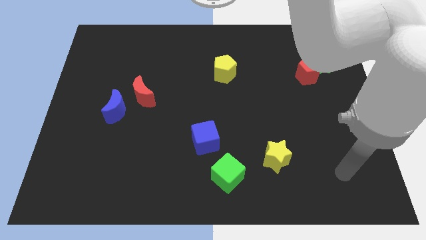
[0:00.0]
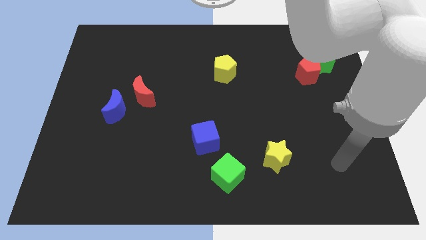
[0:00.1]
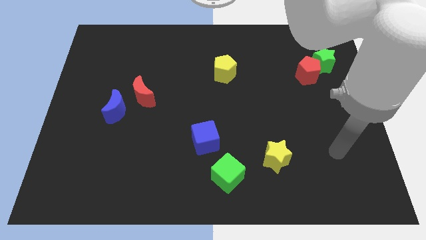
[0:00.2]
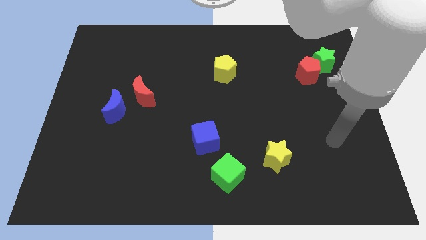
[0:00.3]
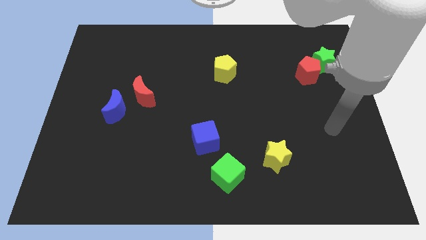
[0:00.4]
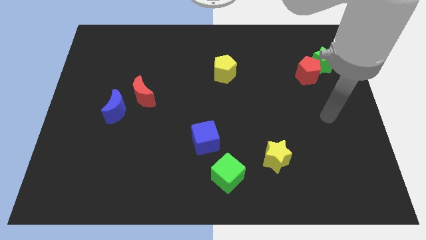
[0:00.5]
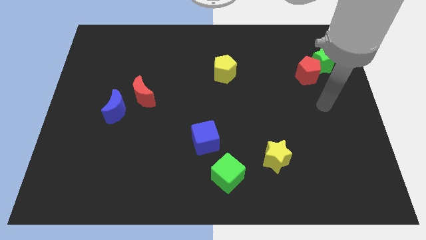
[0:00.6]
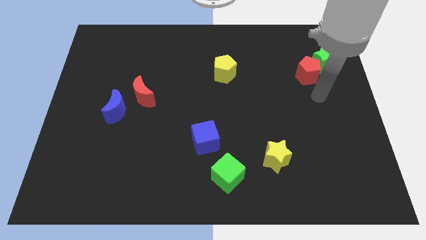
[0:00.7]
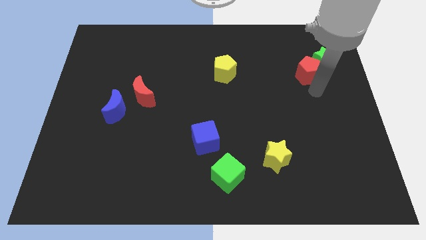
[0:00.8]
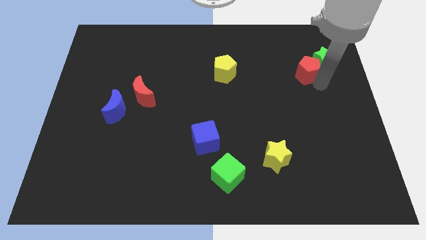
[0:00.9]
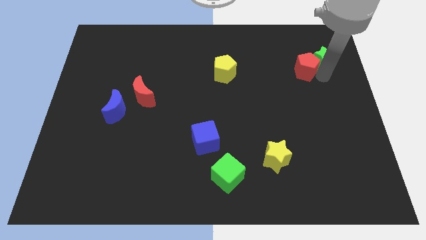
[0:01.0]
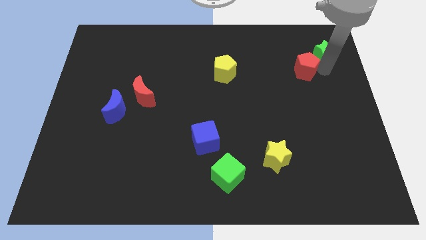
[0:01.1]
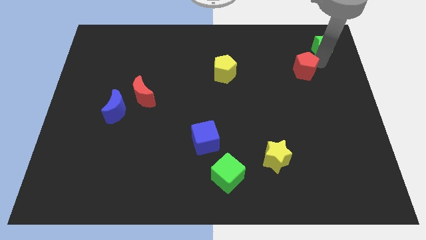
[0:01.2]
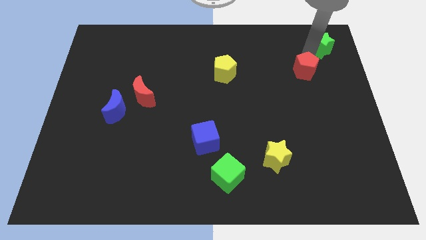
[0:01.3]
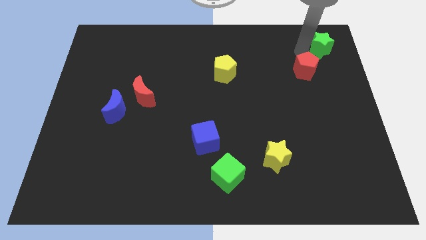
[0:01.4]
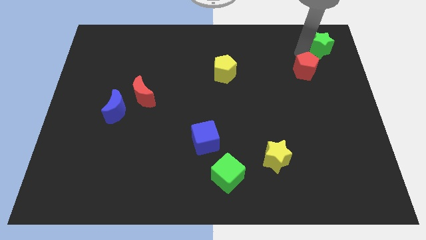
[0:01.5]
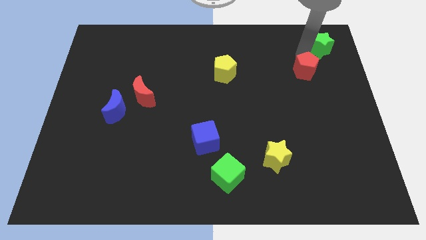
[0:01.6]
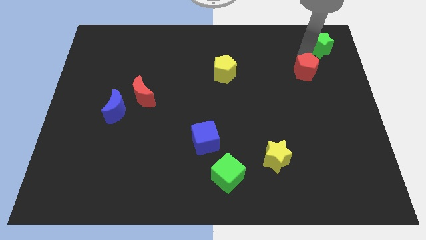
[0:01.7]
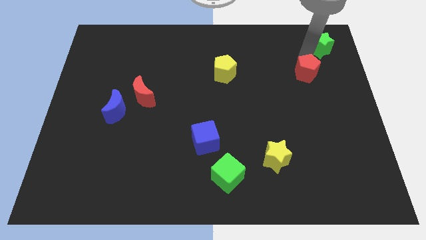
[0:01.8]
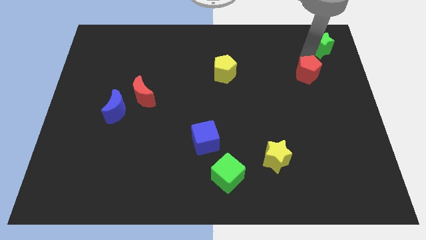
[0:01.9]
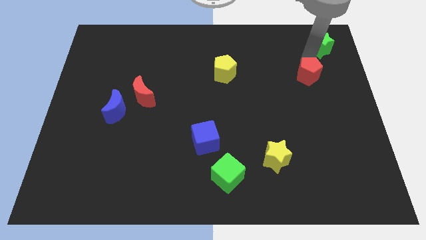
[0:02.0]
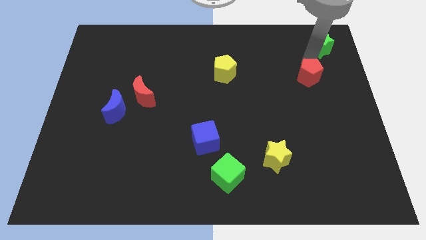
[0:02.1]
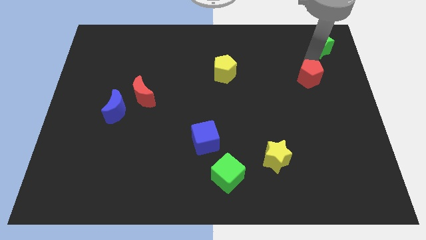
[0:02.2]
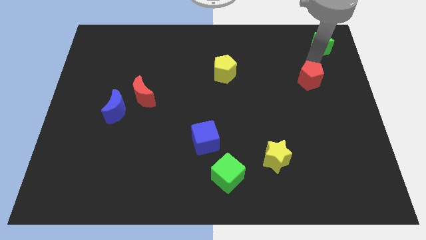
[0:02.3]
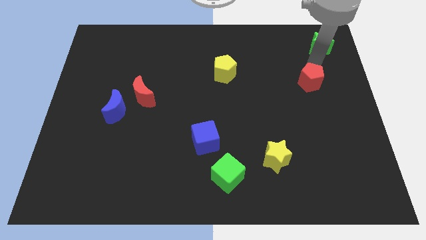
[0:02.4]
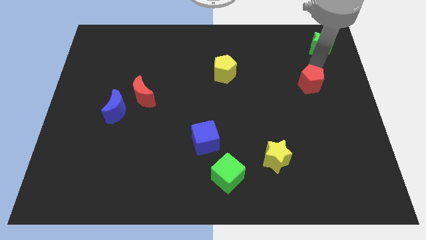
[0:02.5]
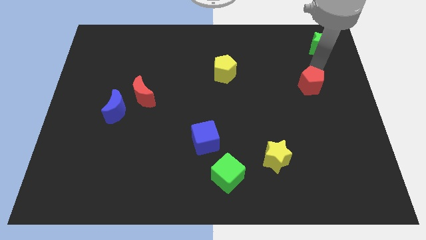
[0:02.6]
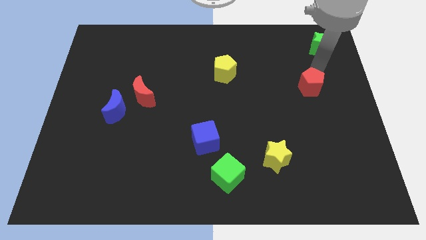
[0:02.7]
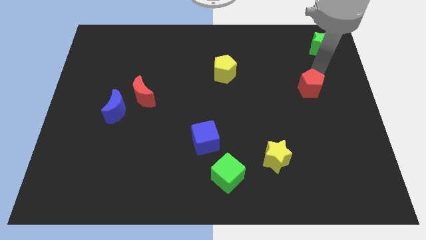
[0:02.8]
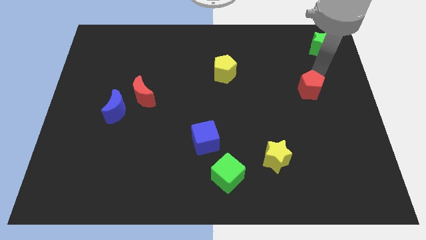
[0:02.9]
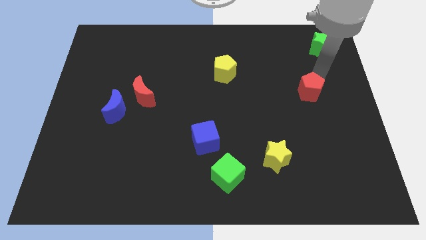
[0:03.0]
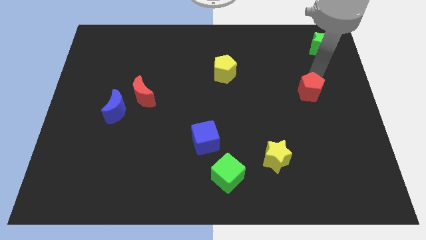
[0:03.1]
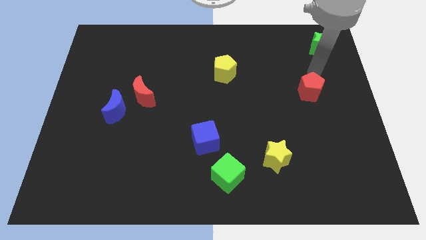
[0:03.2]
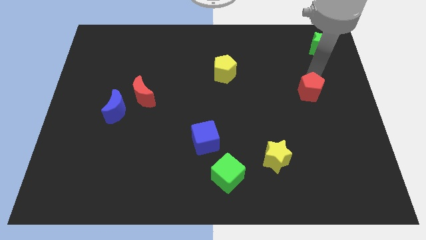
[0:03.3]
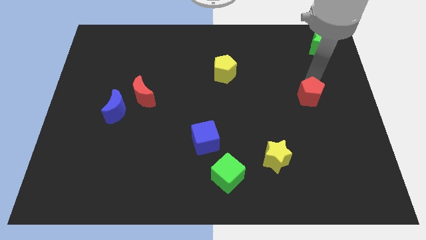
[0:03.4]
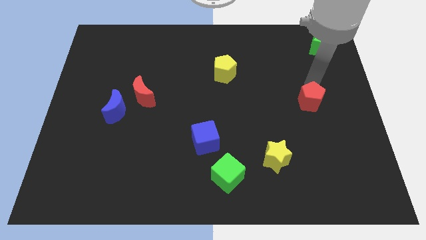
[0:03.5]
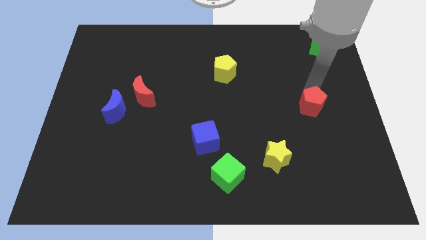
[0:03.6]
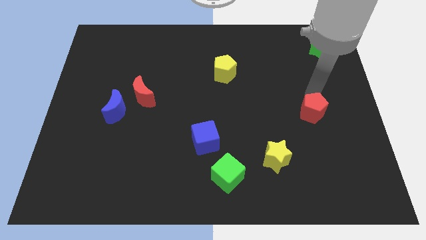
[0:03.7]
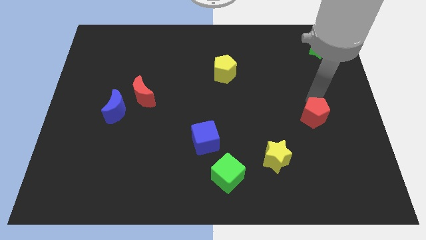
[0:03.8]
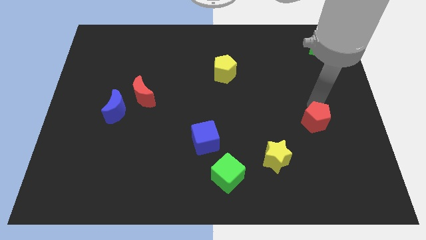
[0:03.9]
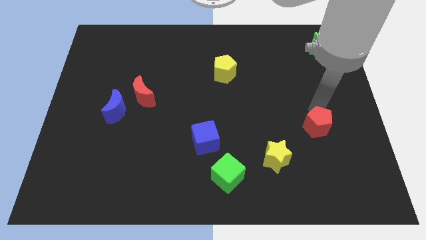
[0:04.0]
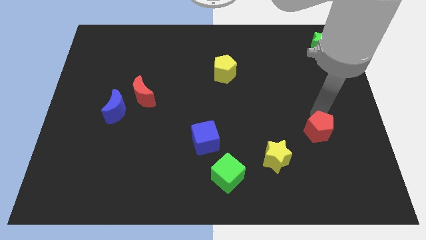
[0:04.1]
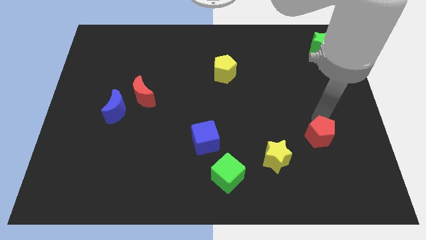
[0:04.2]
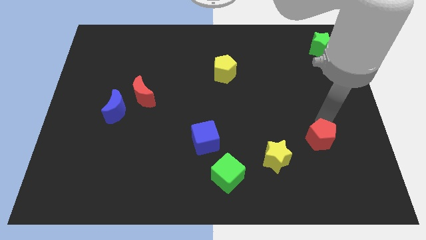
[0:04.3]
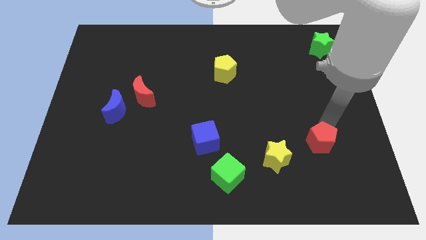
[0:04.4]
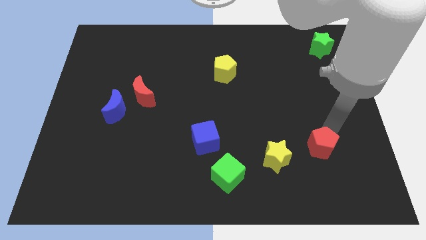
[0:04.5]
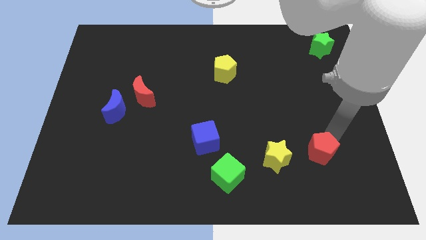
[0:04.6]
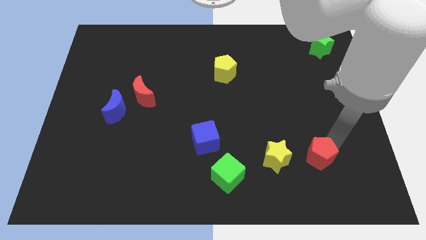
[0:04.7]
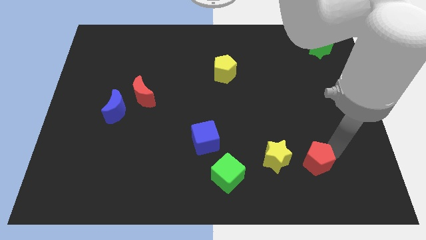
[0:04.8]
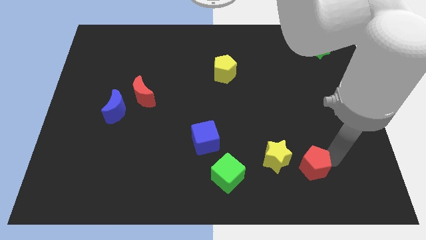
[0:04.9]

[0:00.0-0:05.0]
slide the red pentagon diagonally down and to the right of the yellow star

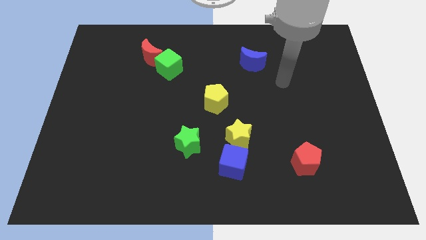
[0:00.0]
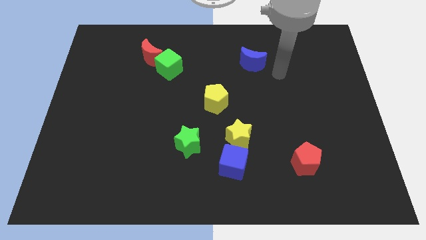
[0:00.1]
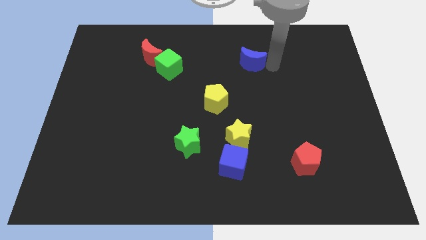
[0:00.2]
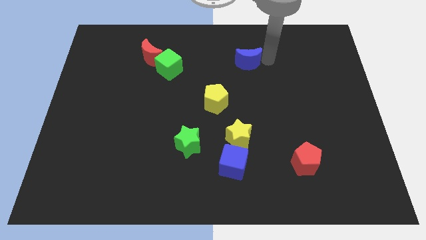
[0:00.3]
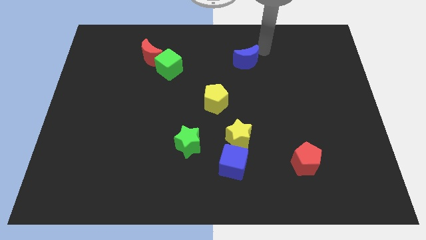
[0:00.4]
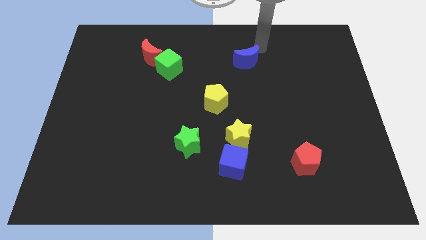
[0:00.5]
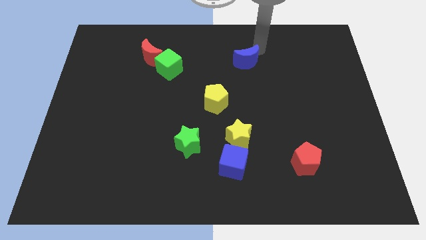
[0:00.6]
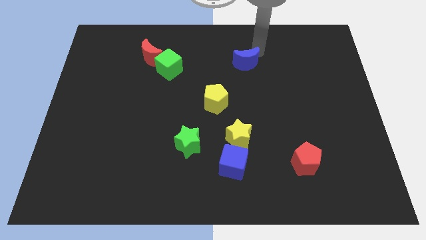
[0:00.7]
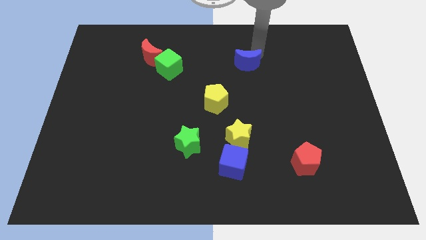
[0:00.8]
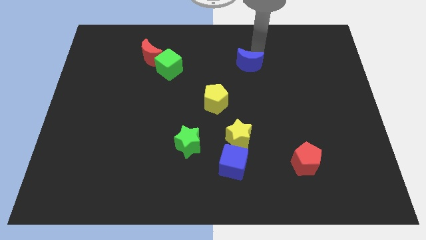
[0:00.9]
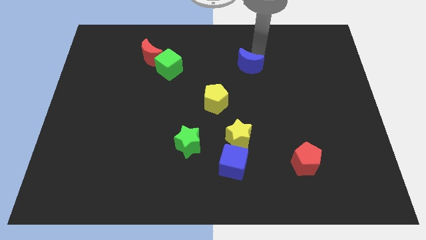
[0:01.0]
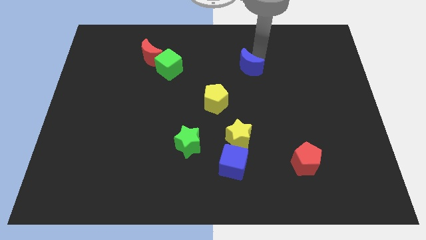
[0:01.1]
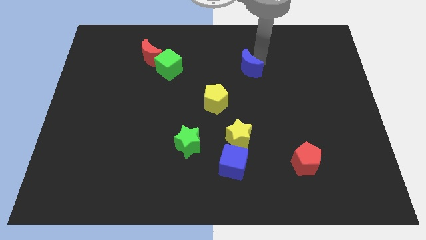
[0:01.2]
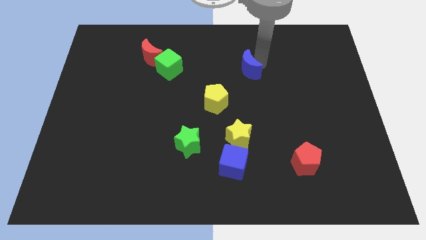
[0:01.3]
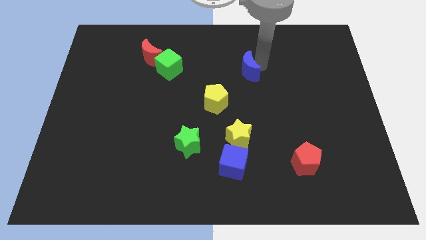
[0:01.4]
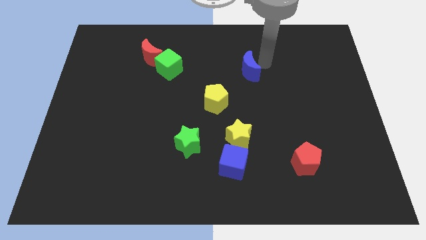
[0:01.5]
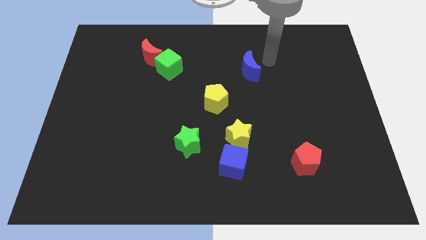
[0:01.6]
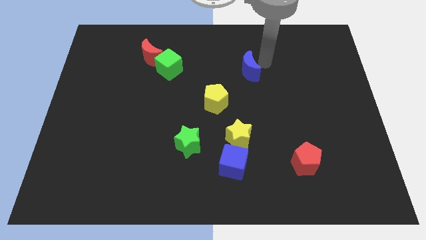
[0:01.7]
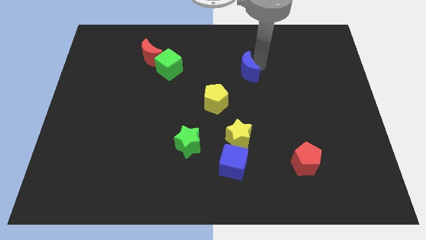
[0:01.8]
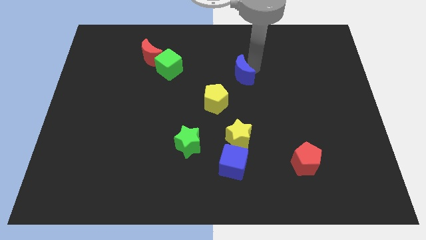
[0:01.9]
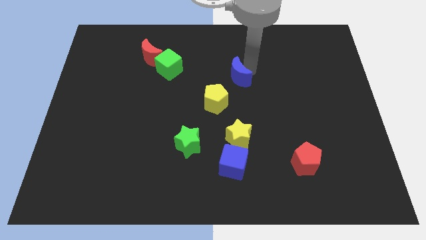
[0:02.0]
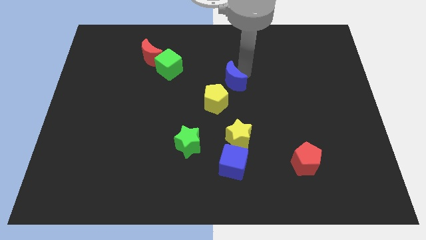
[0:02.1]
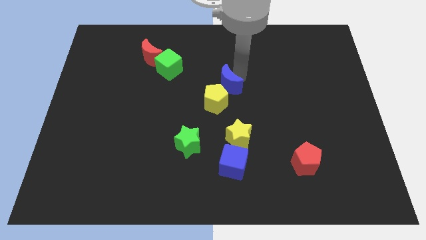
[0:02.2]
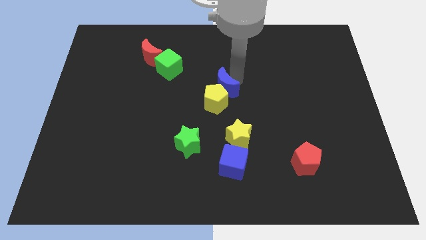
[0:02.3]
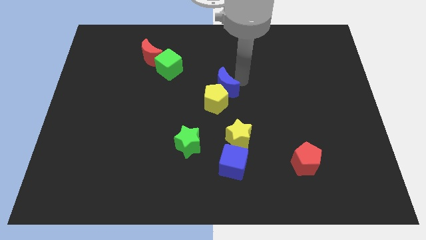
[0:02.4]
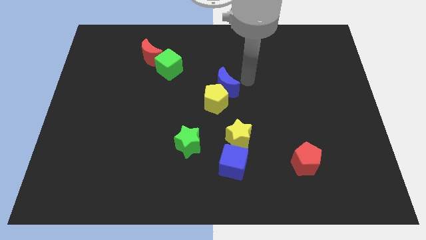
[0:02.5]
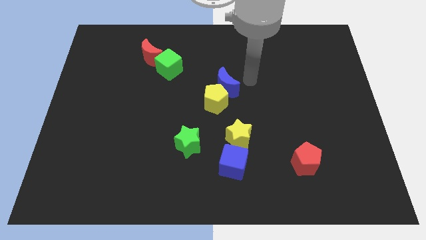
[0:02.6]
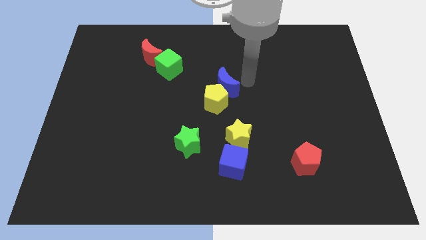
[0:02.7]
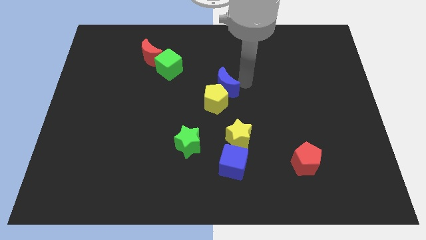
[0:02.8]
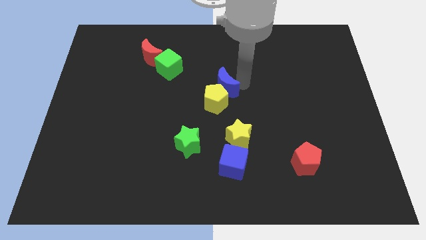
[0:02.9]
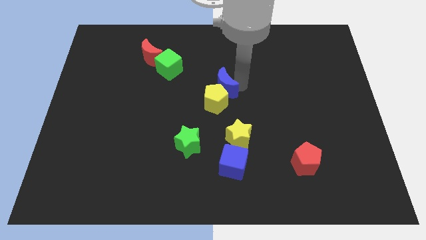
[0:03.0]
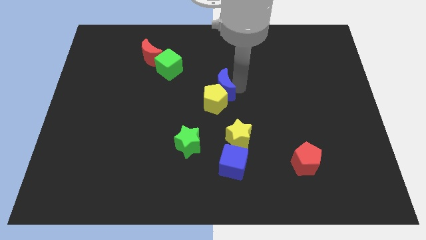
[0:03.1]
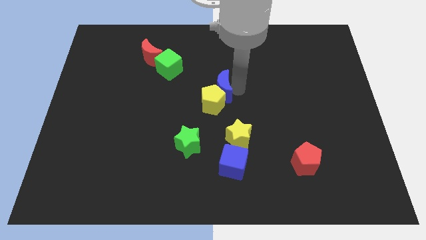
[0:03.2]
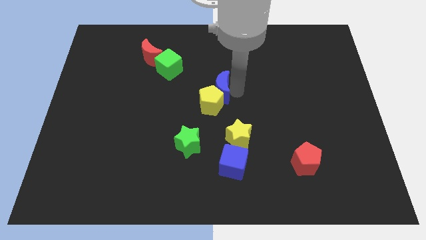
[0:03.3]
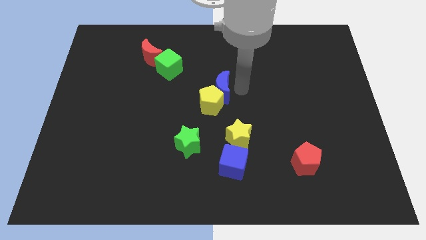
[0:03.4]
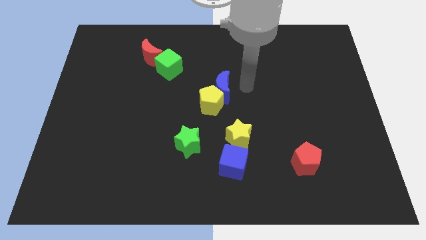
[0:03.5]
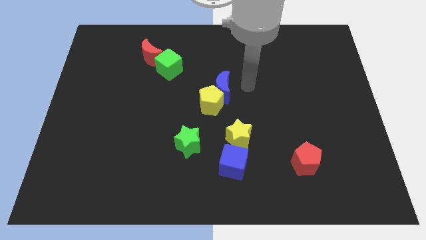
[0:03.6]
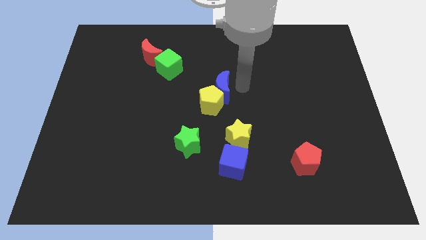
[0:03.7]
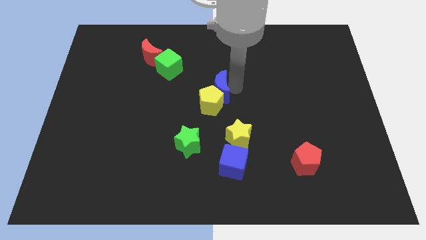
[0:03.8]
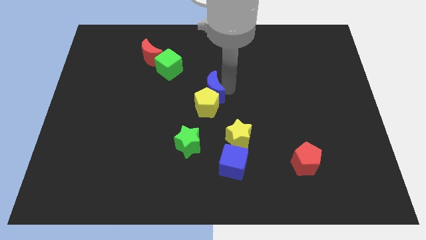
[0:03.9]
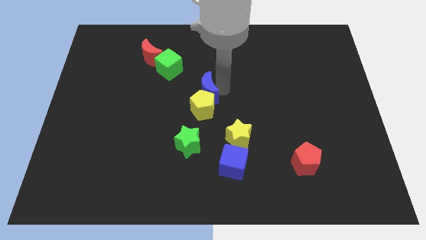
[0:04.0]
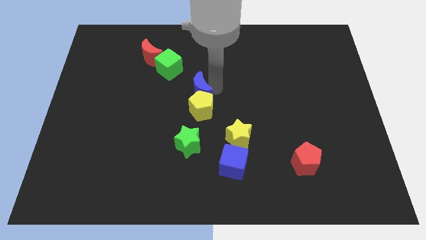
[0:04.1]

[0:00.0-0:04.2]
move the blue moon to the top of the green star
